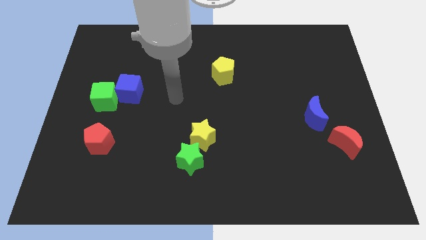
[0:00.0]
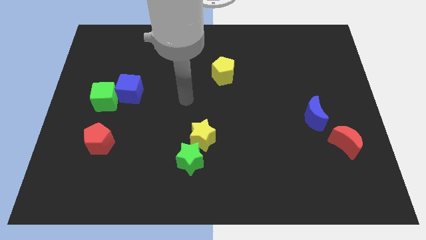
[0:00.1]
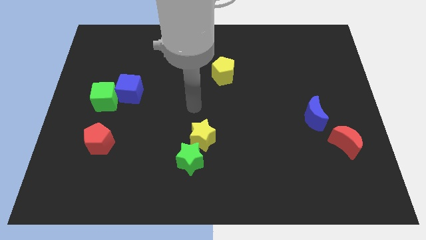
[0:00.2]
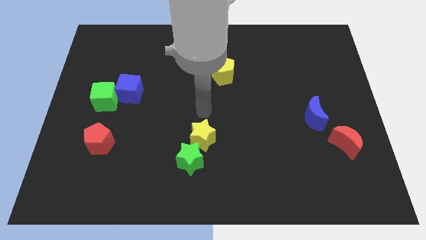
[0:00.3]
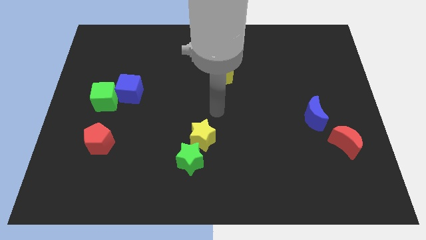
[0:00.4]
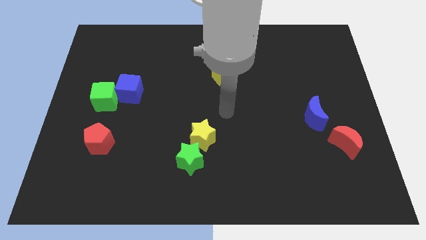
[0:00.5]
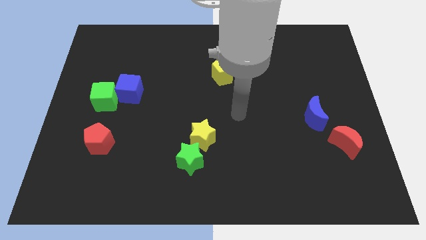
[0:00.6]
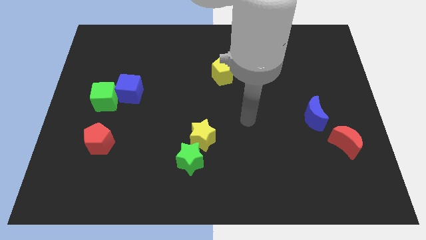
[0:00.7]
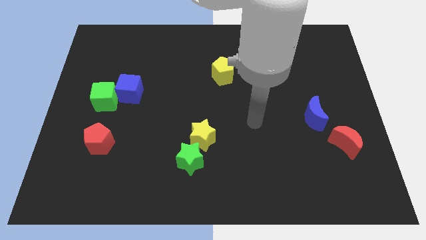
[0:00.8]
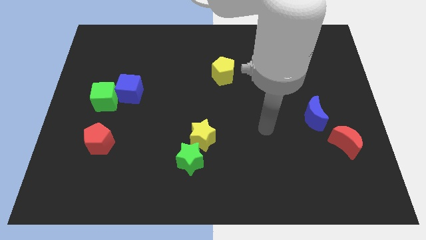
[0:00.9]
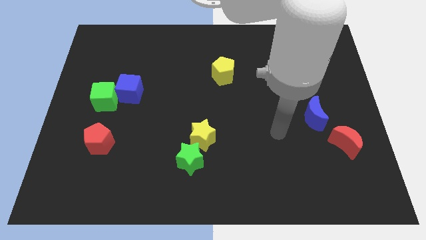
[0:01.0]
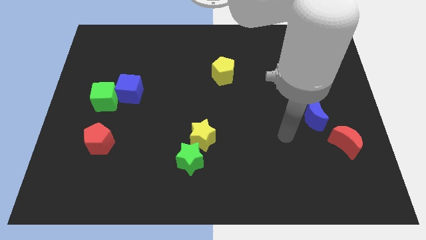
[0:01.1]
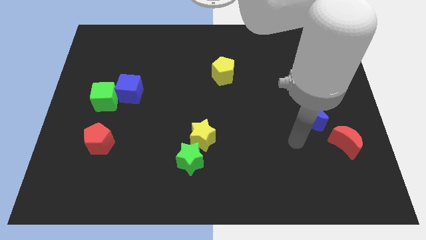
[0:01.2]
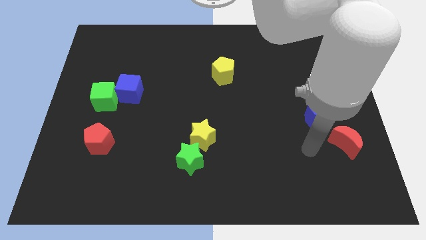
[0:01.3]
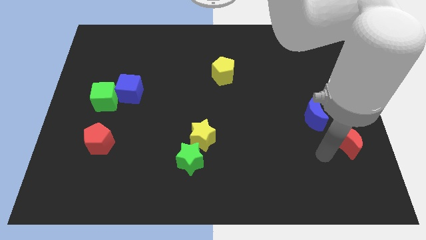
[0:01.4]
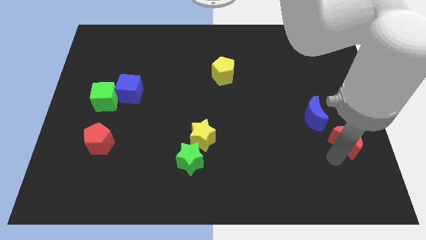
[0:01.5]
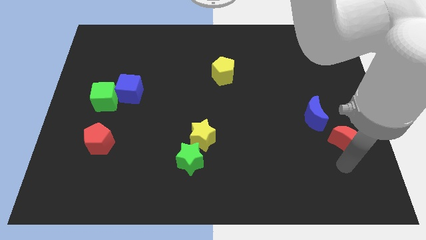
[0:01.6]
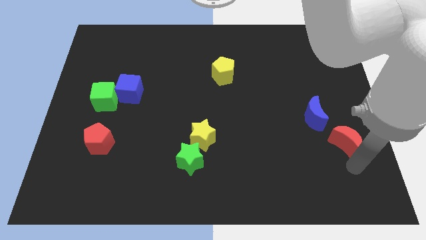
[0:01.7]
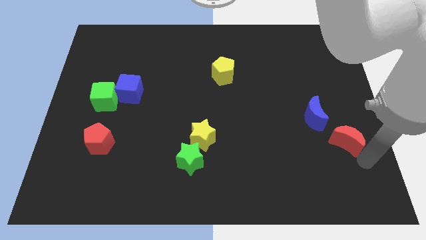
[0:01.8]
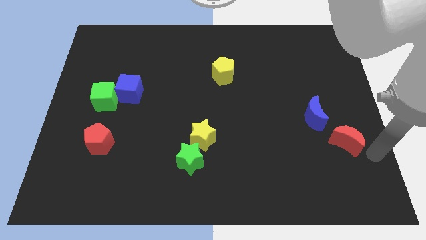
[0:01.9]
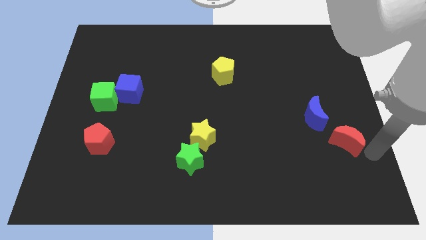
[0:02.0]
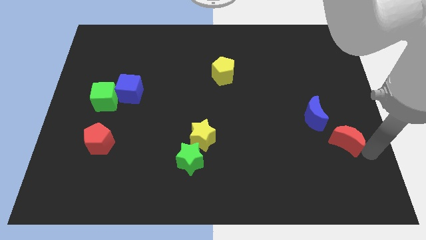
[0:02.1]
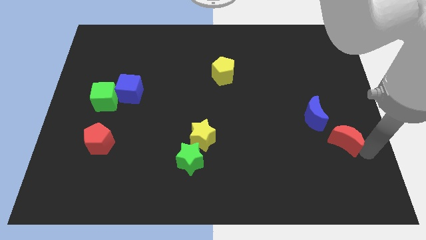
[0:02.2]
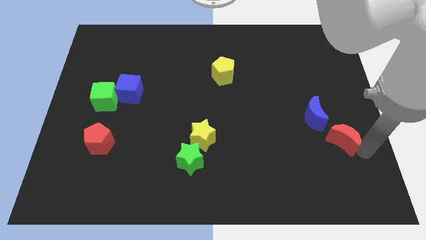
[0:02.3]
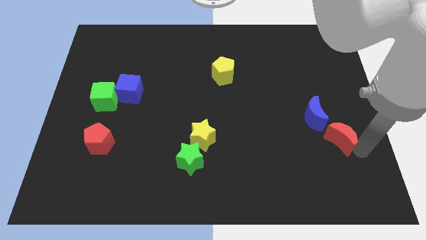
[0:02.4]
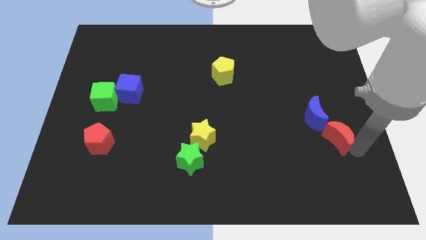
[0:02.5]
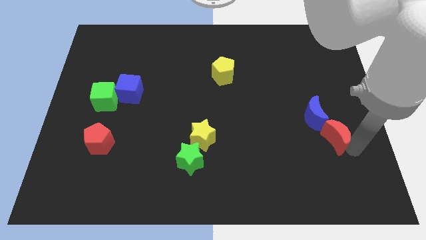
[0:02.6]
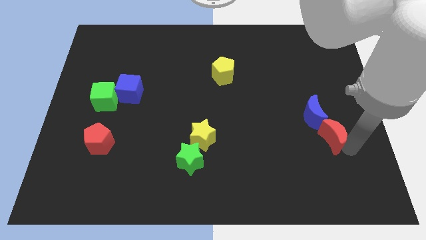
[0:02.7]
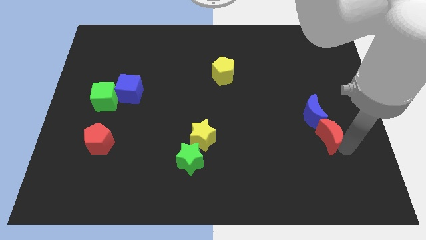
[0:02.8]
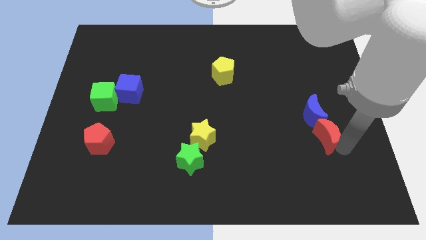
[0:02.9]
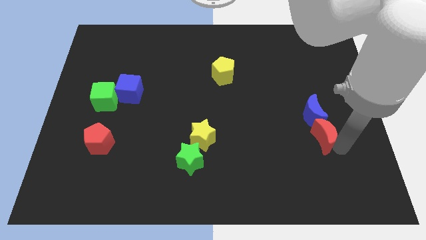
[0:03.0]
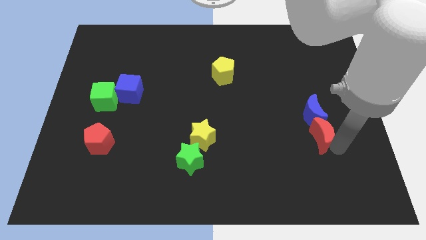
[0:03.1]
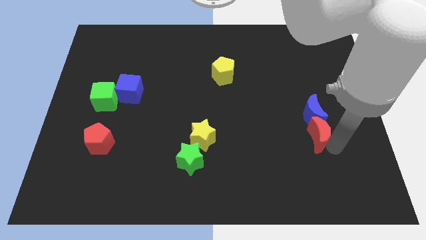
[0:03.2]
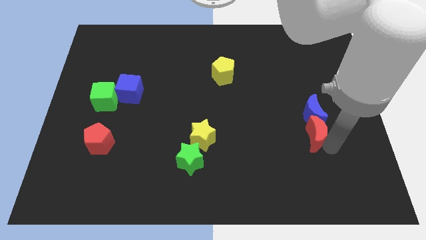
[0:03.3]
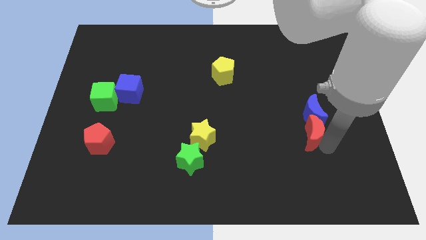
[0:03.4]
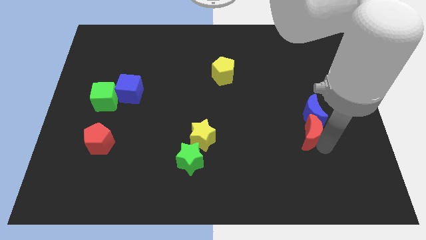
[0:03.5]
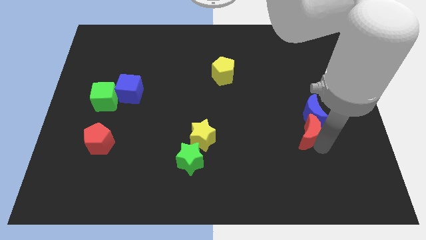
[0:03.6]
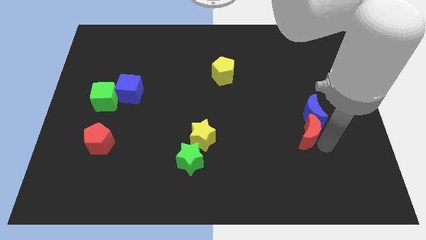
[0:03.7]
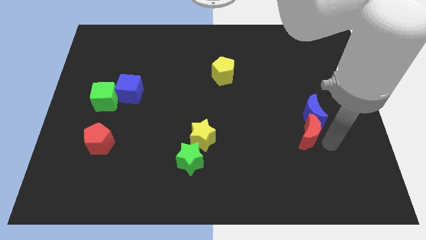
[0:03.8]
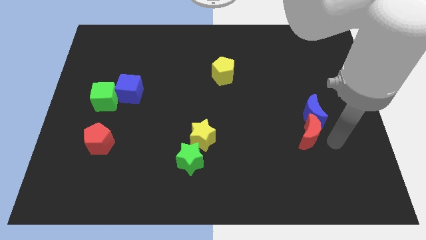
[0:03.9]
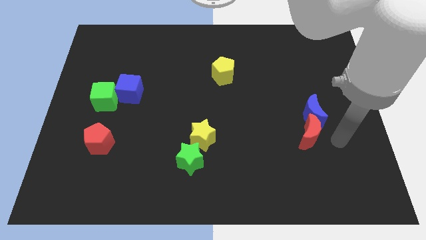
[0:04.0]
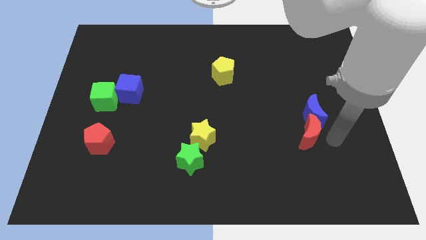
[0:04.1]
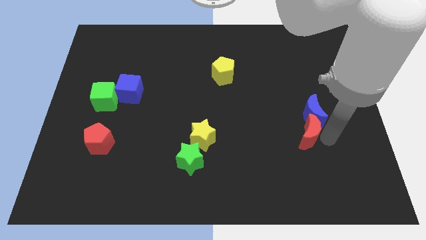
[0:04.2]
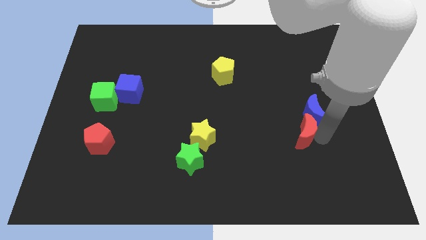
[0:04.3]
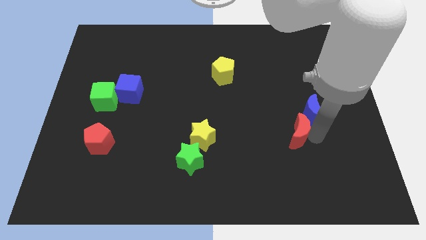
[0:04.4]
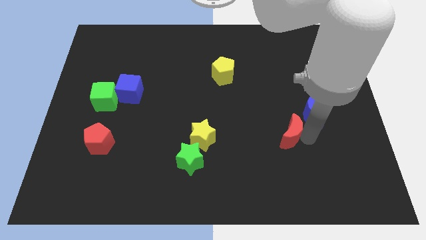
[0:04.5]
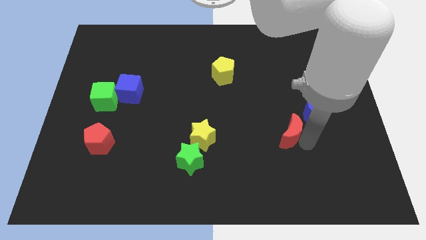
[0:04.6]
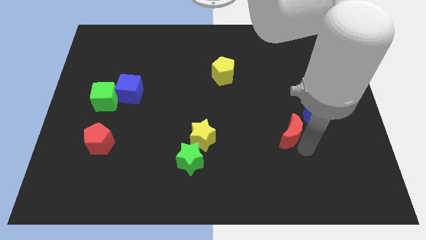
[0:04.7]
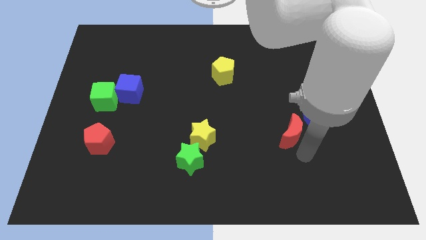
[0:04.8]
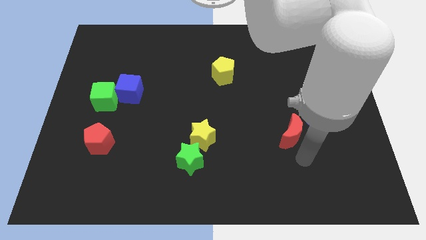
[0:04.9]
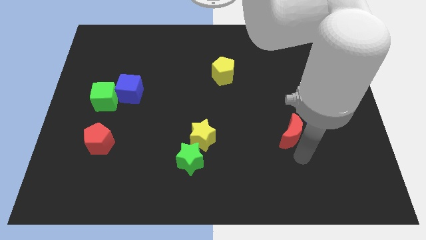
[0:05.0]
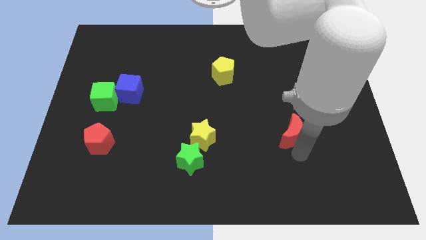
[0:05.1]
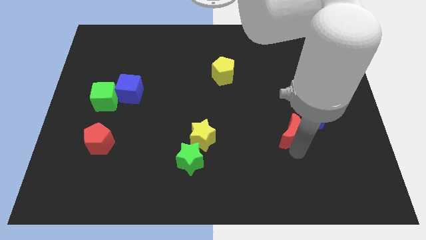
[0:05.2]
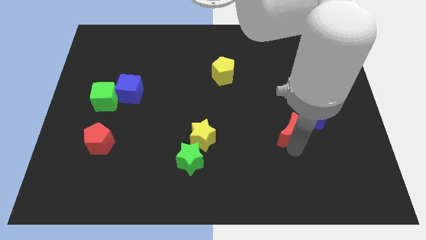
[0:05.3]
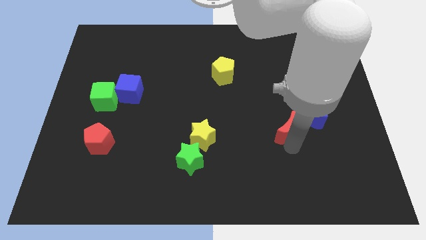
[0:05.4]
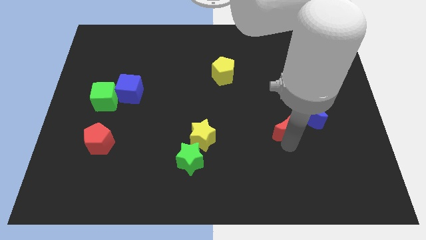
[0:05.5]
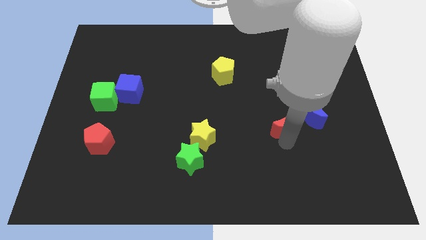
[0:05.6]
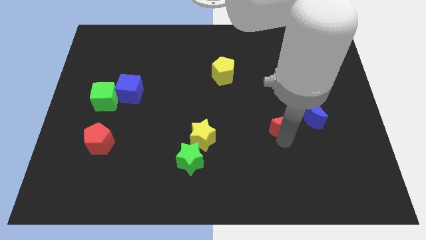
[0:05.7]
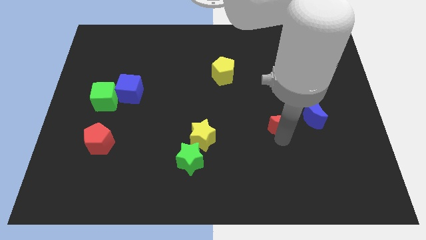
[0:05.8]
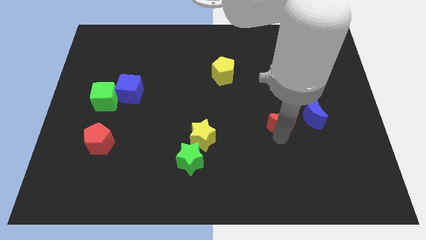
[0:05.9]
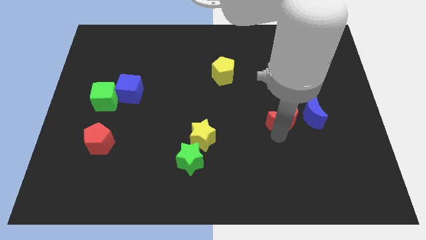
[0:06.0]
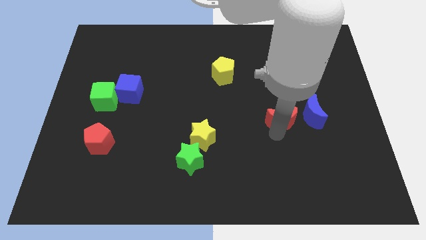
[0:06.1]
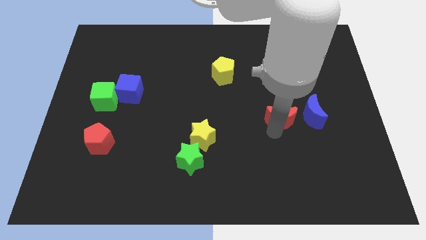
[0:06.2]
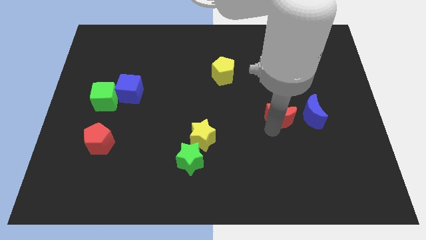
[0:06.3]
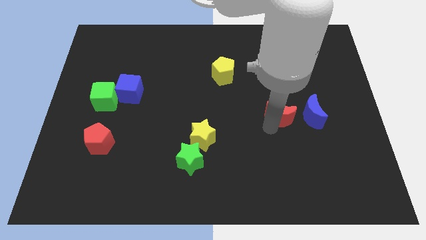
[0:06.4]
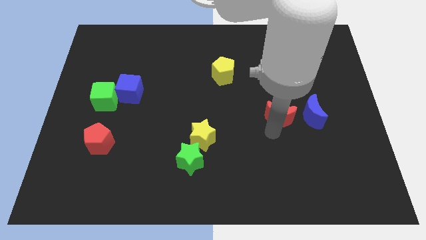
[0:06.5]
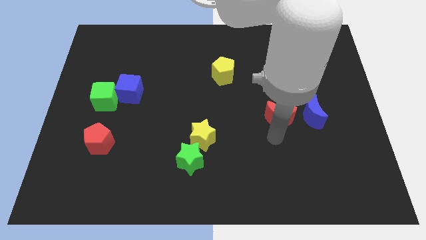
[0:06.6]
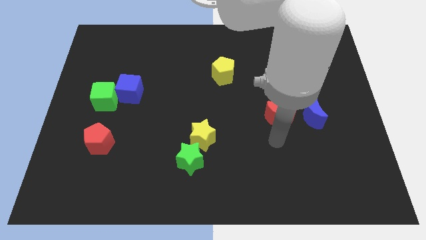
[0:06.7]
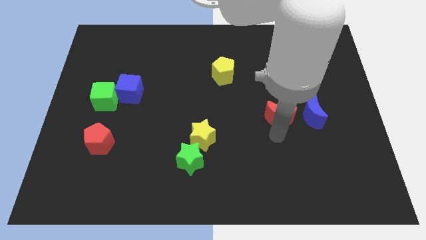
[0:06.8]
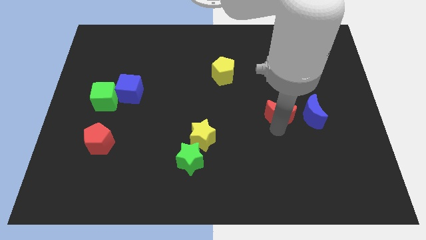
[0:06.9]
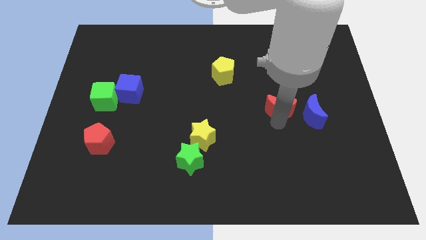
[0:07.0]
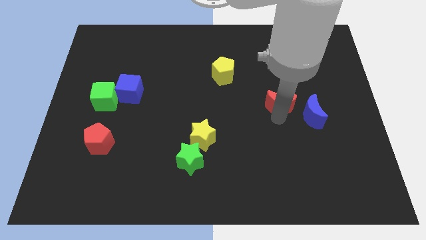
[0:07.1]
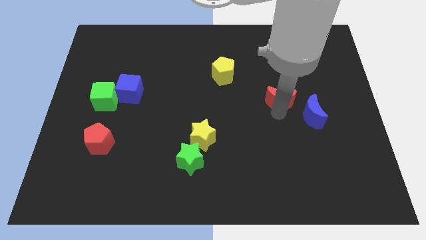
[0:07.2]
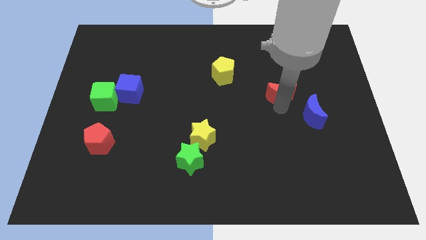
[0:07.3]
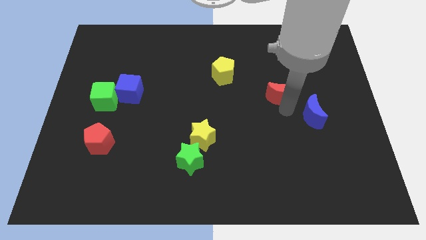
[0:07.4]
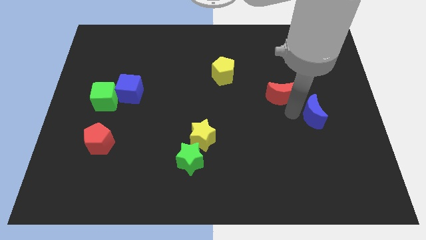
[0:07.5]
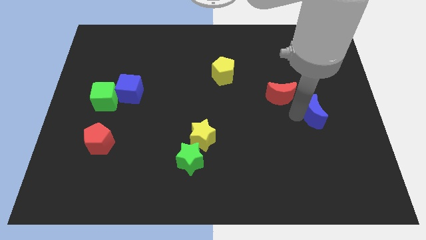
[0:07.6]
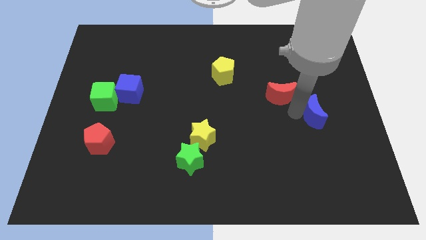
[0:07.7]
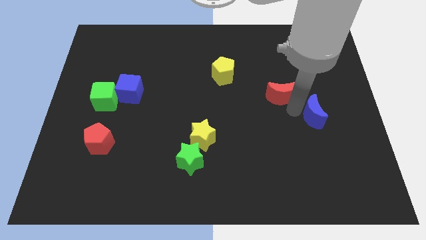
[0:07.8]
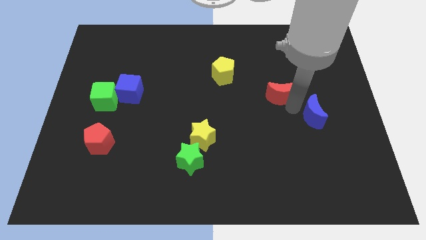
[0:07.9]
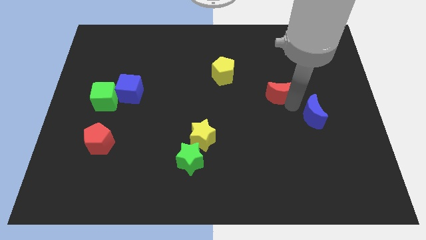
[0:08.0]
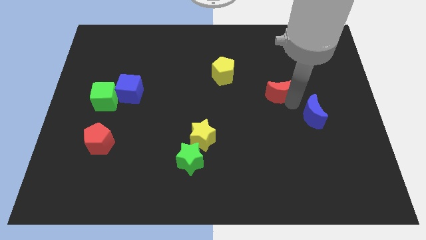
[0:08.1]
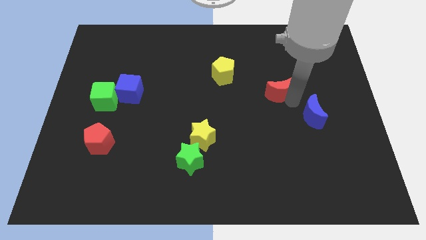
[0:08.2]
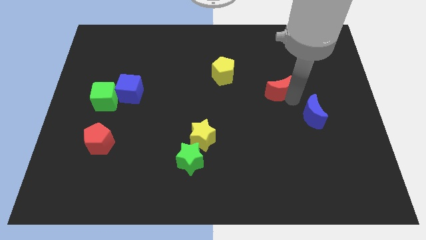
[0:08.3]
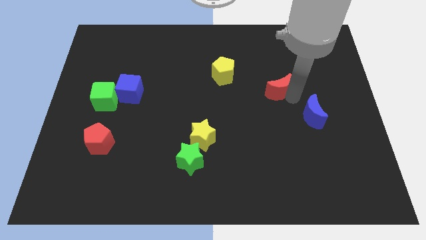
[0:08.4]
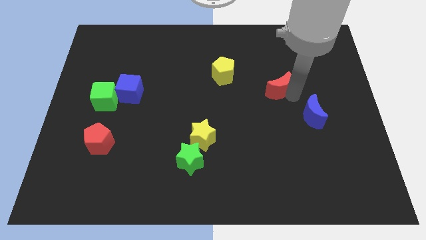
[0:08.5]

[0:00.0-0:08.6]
move the red moon diagonally upwards and left
